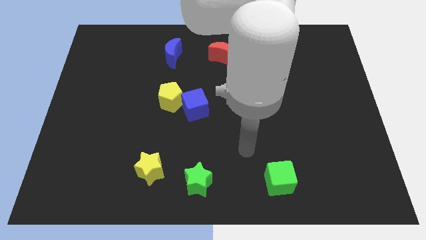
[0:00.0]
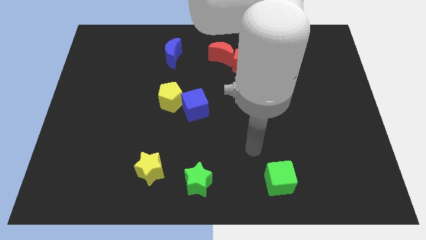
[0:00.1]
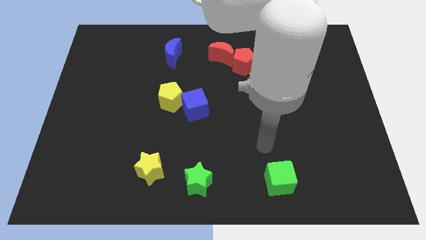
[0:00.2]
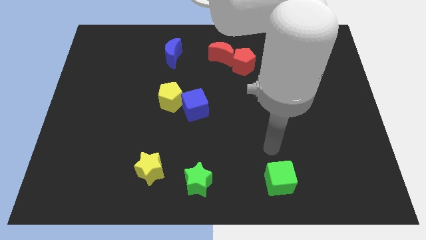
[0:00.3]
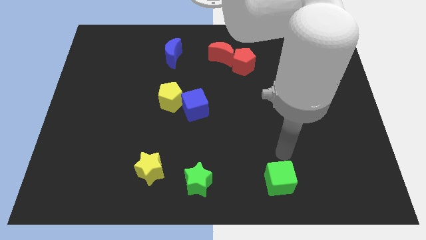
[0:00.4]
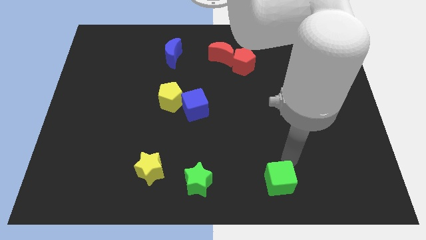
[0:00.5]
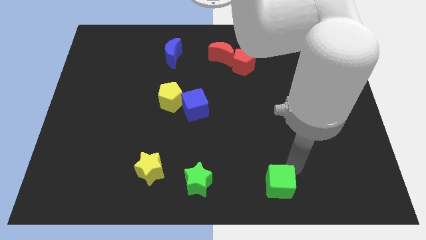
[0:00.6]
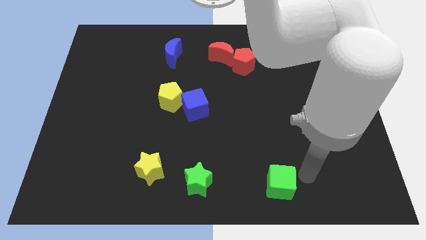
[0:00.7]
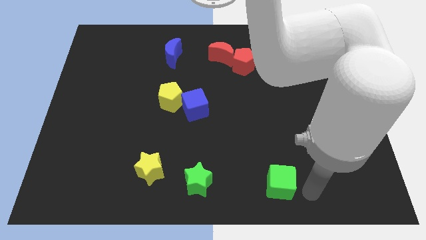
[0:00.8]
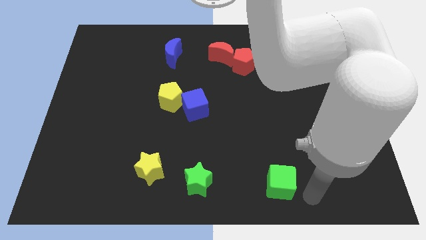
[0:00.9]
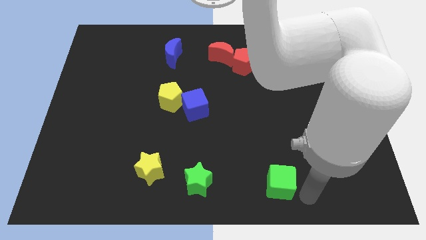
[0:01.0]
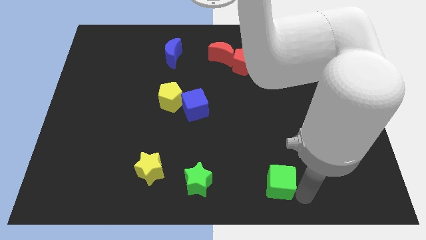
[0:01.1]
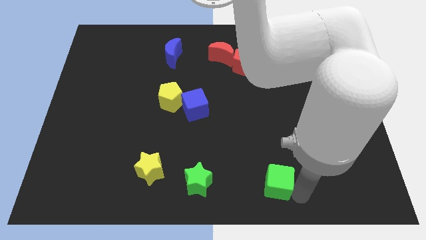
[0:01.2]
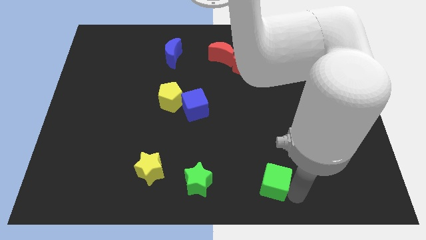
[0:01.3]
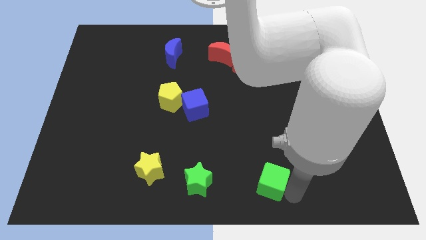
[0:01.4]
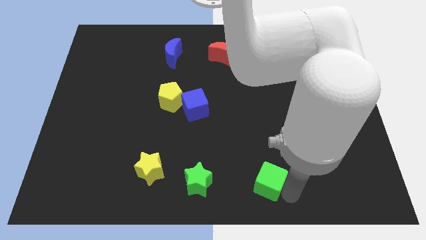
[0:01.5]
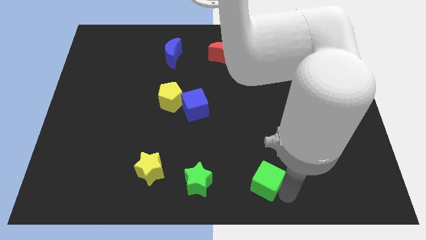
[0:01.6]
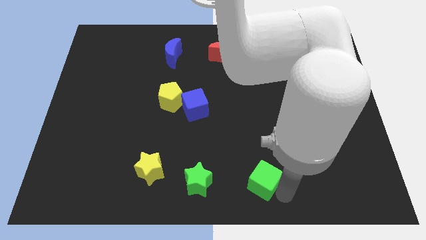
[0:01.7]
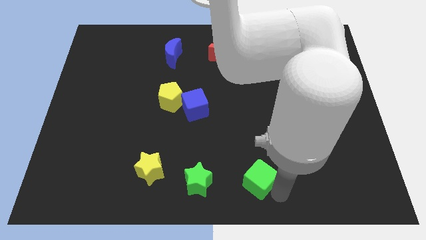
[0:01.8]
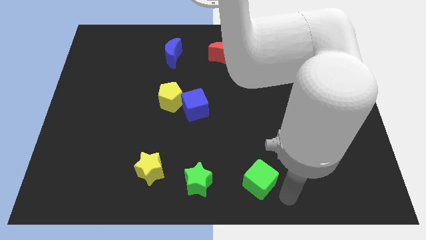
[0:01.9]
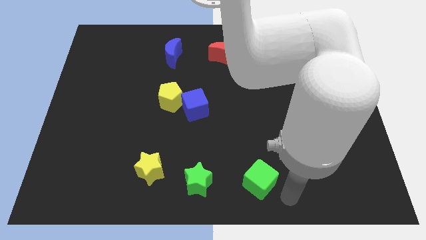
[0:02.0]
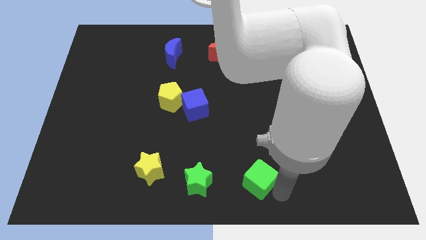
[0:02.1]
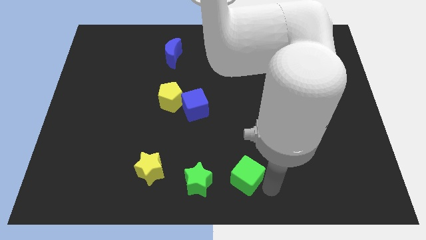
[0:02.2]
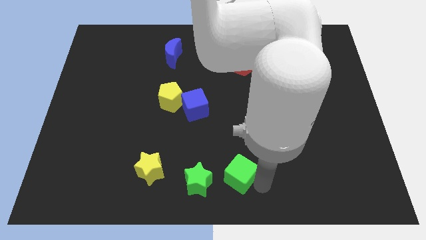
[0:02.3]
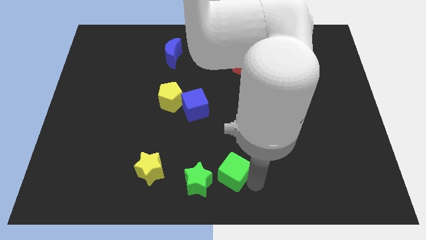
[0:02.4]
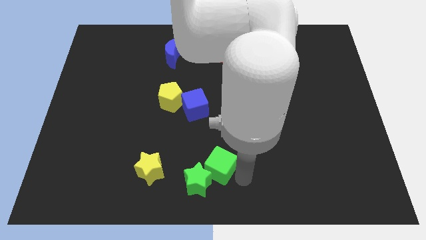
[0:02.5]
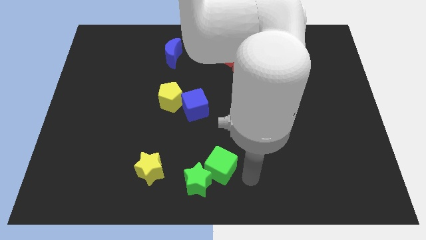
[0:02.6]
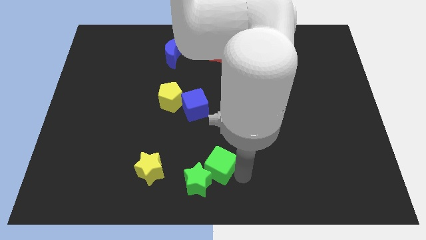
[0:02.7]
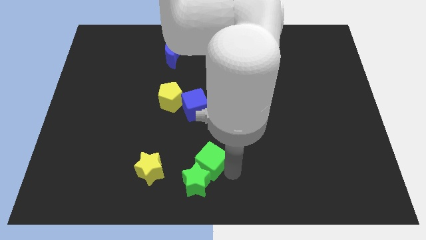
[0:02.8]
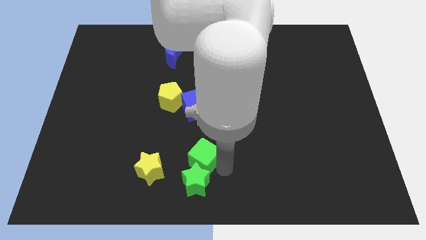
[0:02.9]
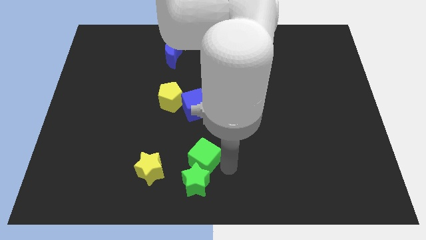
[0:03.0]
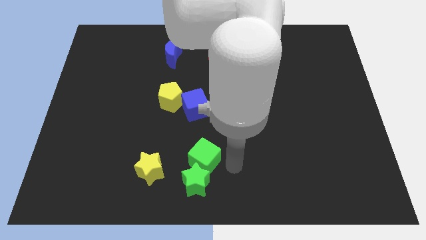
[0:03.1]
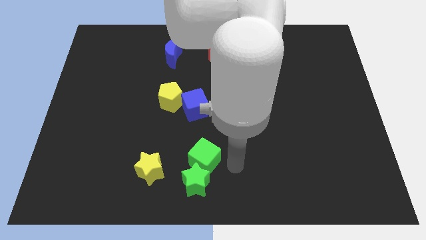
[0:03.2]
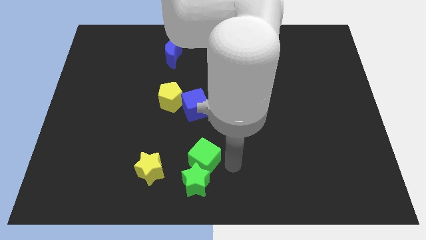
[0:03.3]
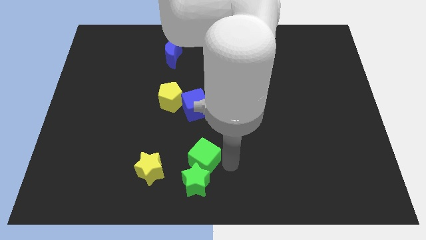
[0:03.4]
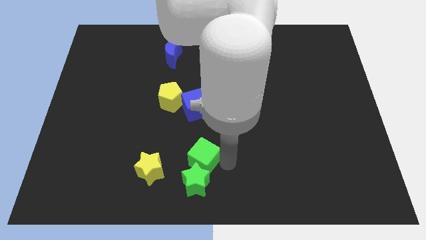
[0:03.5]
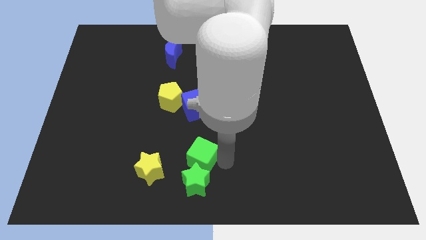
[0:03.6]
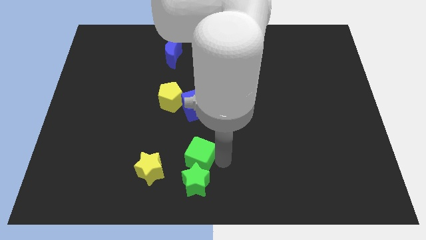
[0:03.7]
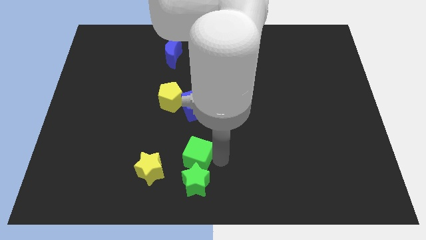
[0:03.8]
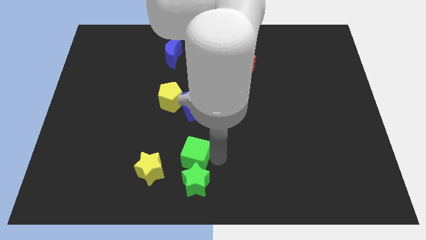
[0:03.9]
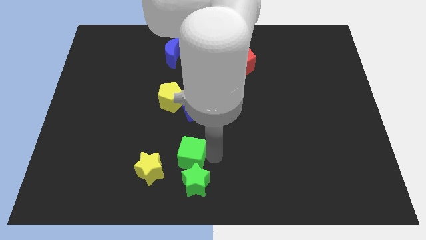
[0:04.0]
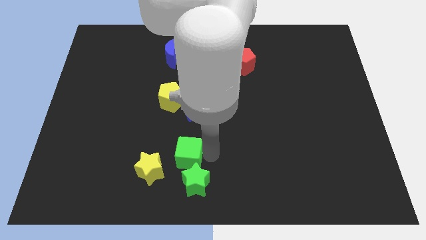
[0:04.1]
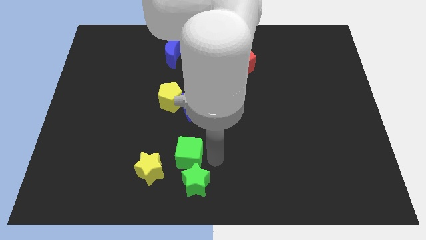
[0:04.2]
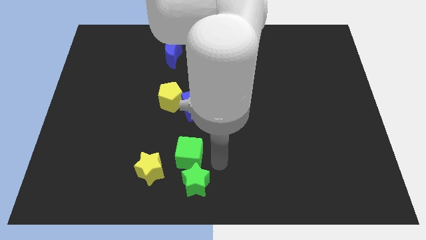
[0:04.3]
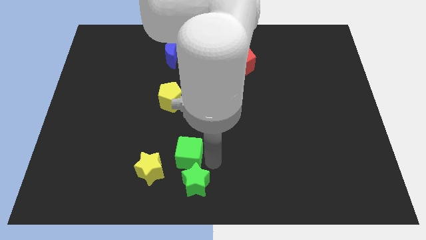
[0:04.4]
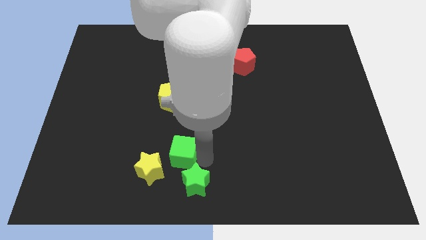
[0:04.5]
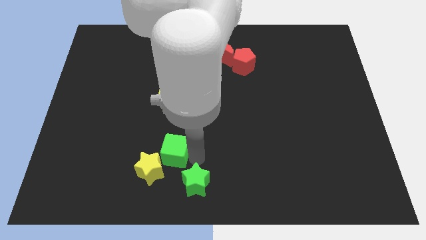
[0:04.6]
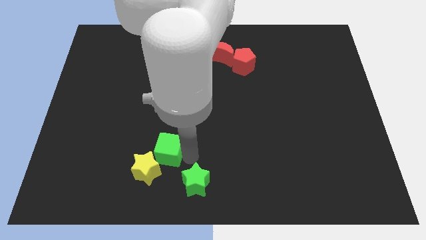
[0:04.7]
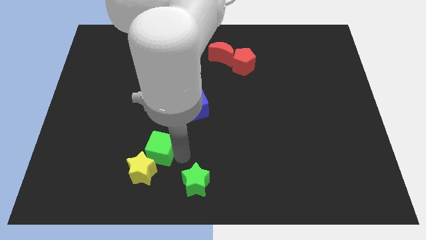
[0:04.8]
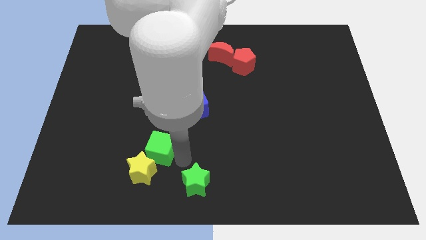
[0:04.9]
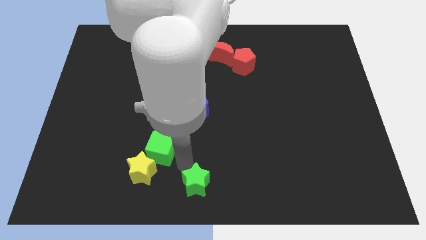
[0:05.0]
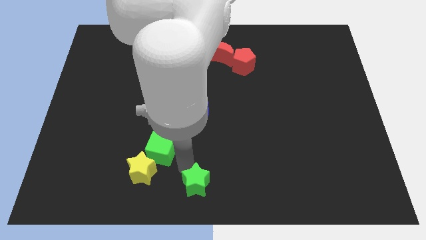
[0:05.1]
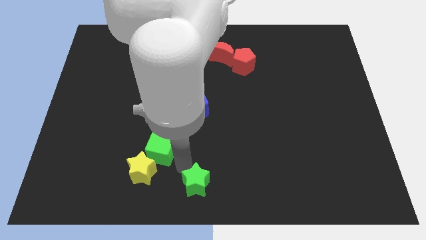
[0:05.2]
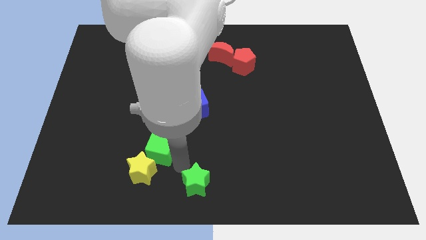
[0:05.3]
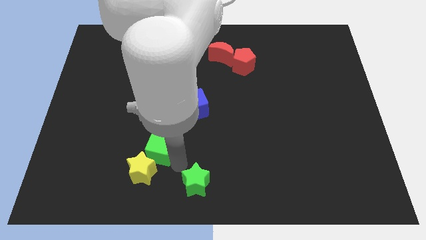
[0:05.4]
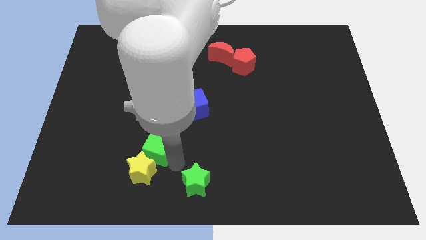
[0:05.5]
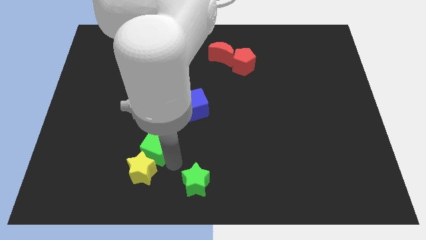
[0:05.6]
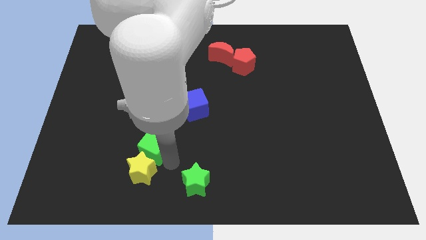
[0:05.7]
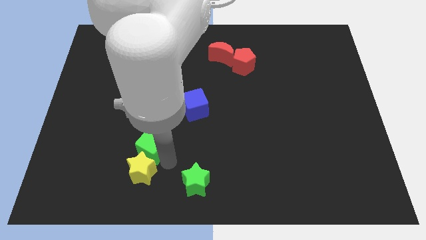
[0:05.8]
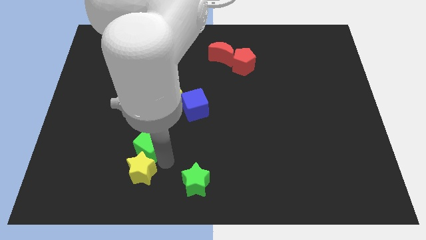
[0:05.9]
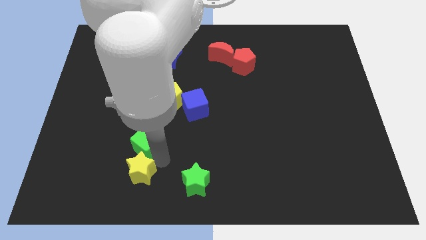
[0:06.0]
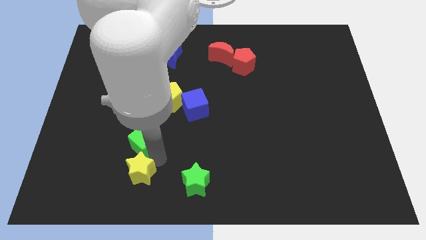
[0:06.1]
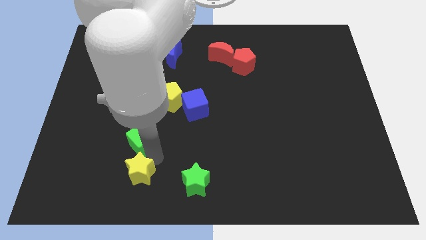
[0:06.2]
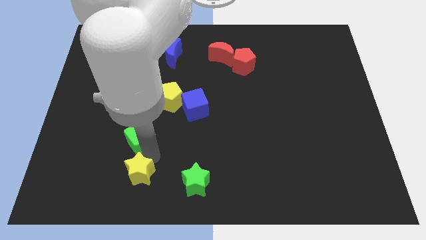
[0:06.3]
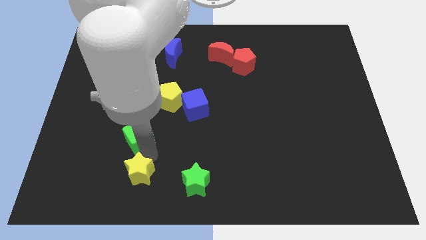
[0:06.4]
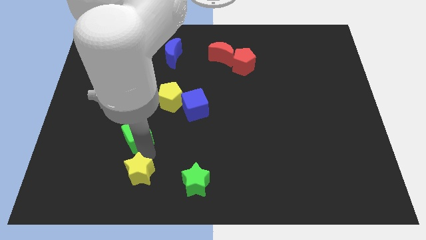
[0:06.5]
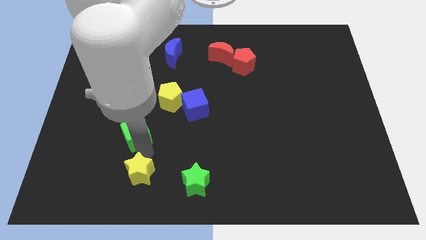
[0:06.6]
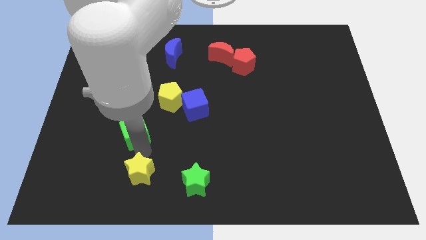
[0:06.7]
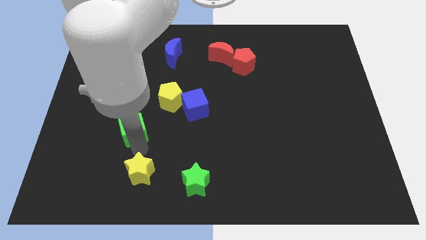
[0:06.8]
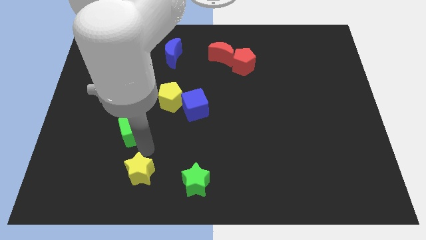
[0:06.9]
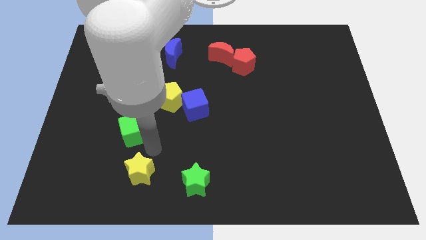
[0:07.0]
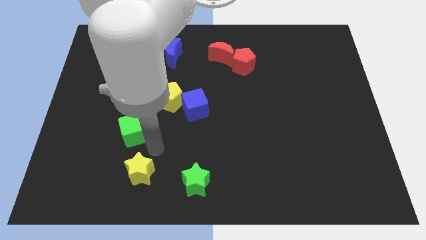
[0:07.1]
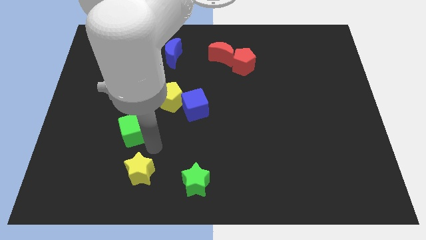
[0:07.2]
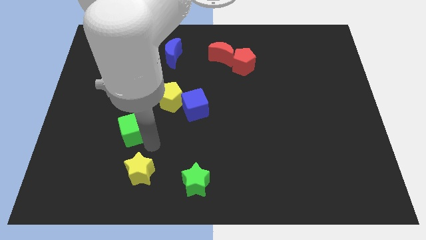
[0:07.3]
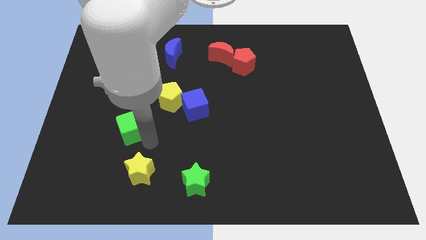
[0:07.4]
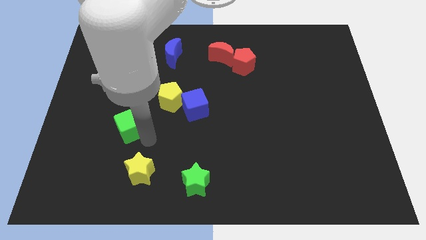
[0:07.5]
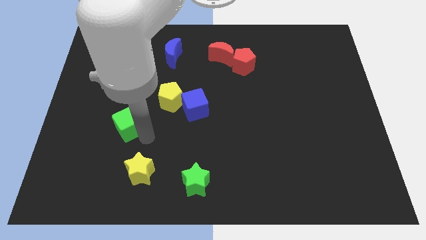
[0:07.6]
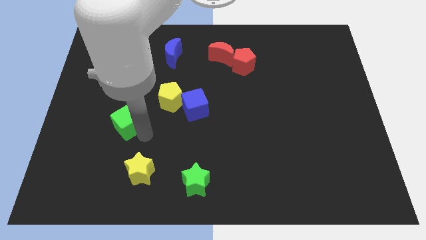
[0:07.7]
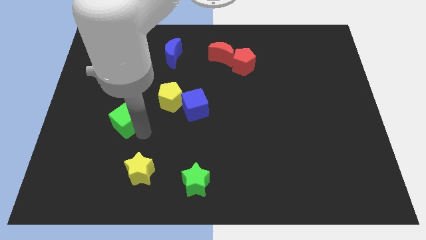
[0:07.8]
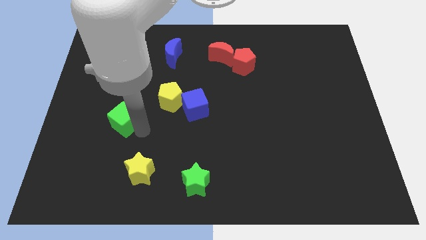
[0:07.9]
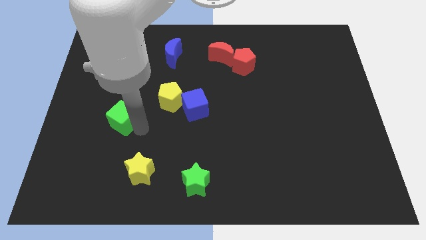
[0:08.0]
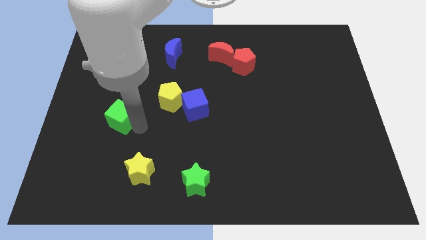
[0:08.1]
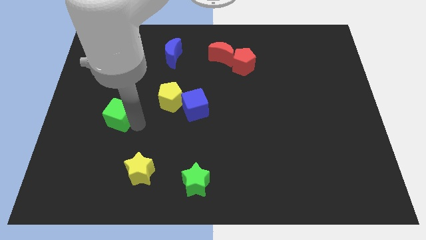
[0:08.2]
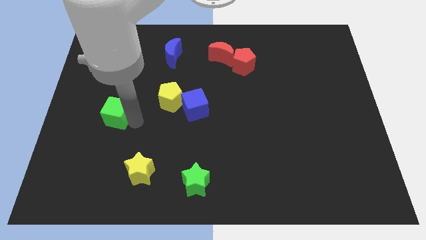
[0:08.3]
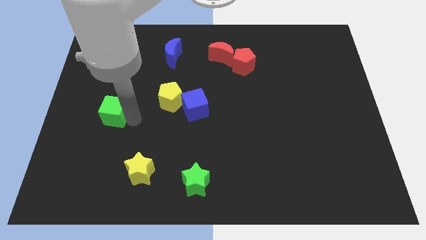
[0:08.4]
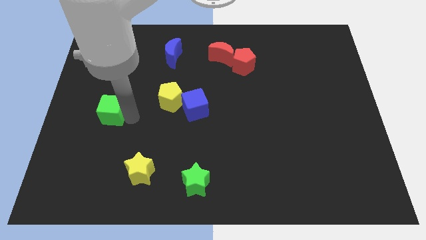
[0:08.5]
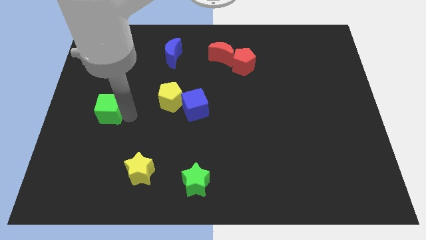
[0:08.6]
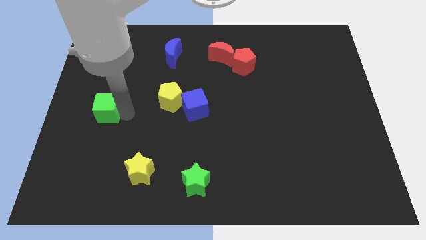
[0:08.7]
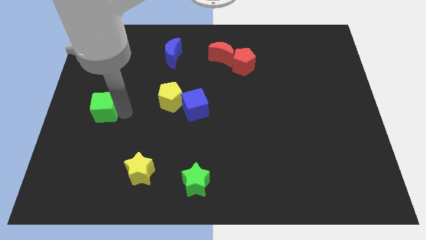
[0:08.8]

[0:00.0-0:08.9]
move the green cube to the center left
